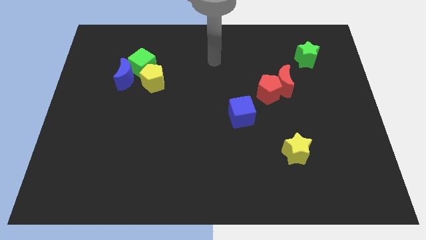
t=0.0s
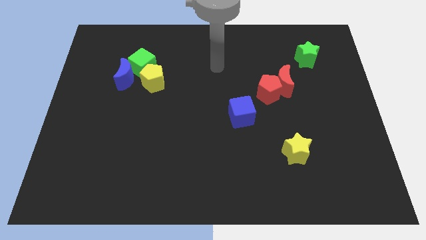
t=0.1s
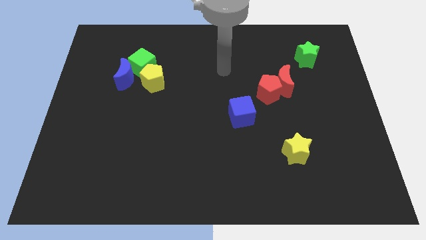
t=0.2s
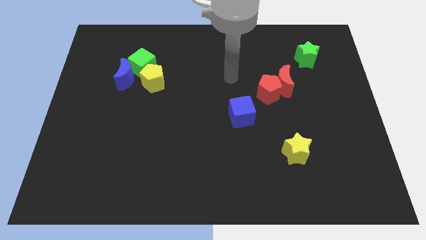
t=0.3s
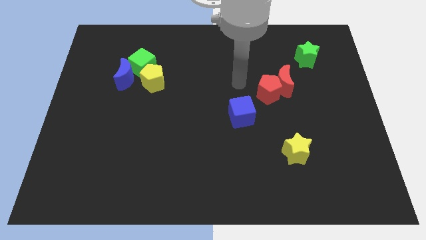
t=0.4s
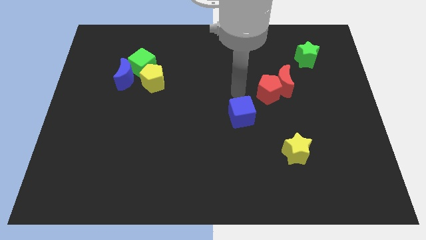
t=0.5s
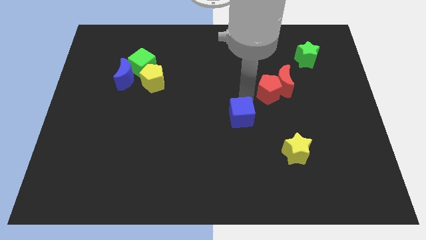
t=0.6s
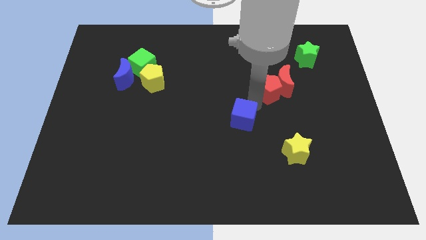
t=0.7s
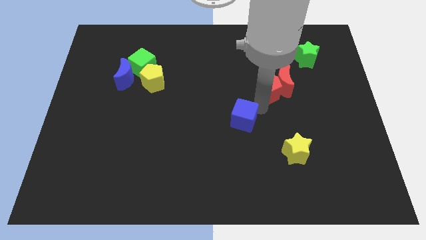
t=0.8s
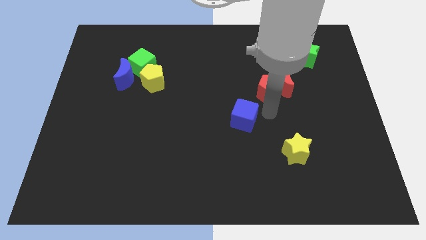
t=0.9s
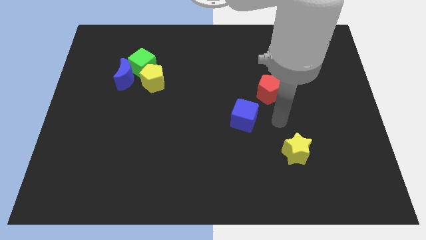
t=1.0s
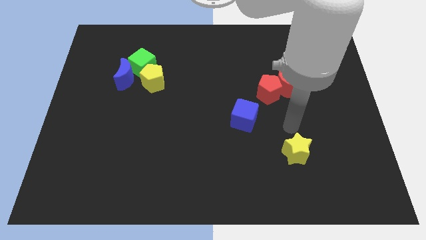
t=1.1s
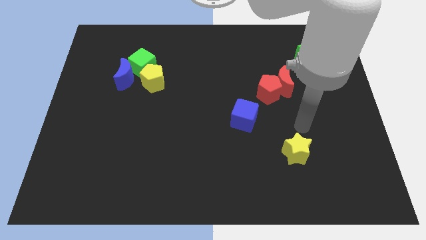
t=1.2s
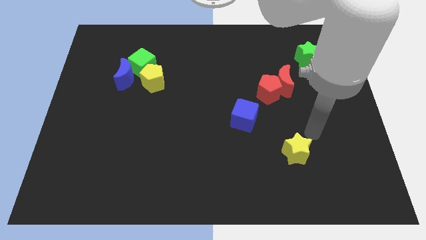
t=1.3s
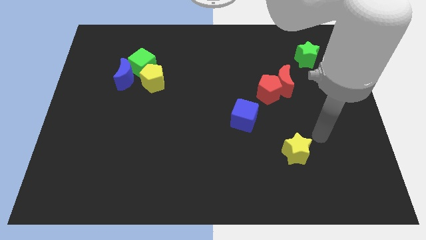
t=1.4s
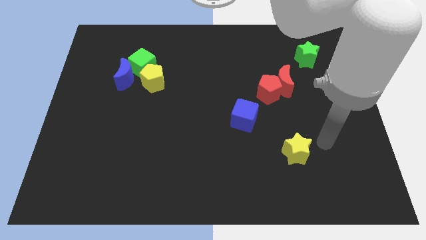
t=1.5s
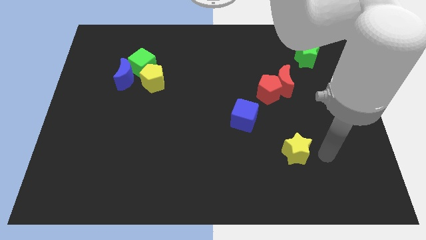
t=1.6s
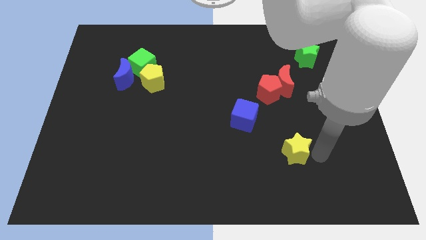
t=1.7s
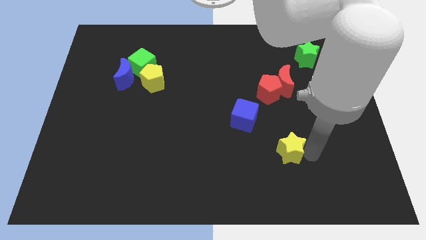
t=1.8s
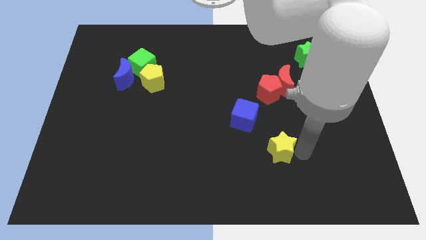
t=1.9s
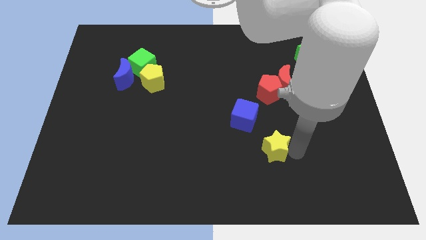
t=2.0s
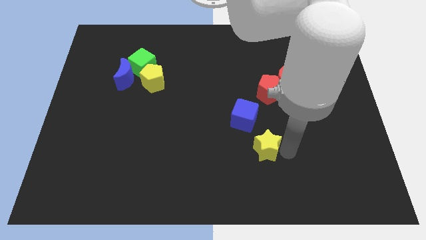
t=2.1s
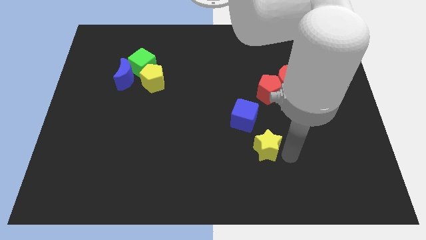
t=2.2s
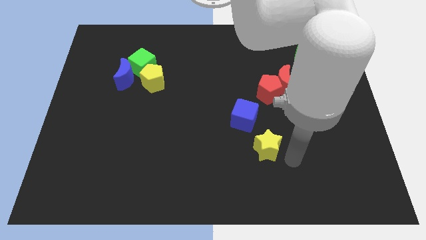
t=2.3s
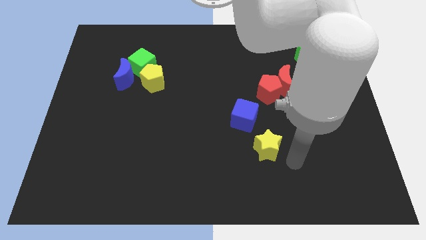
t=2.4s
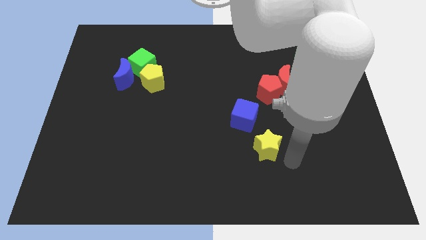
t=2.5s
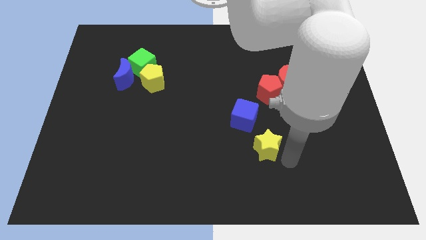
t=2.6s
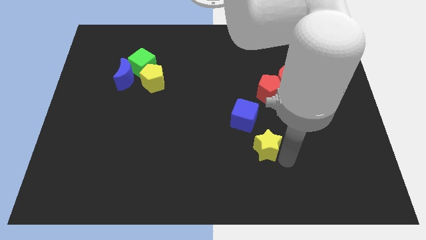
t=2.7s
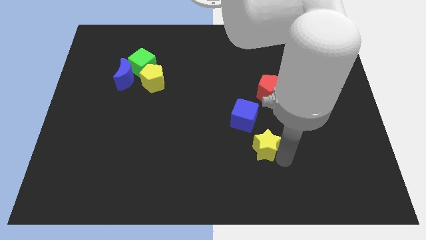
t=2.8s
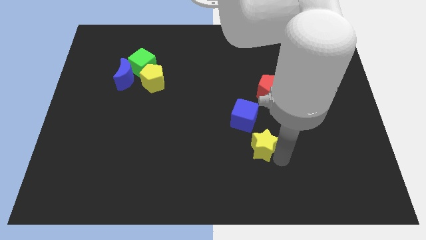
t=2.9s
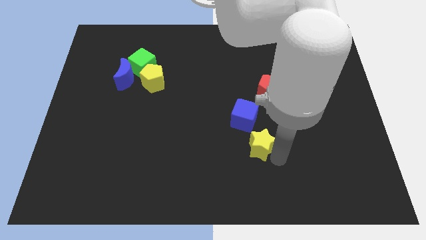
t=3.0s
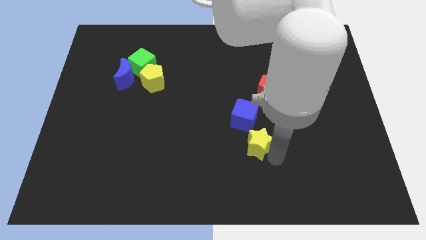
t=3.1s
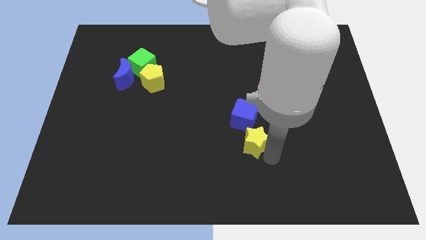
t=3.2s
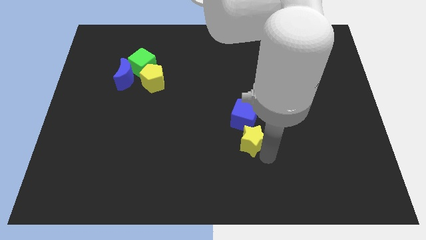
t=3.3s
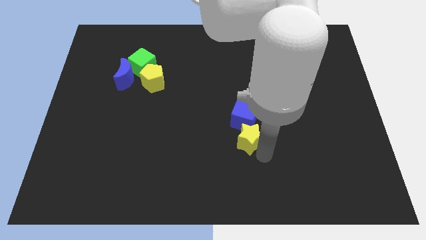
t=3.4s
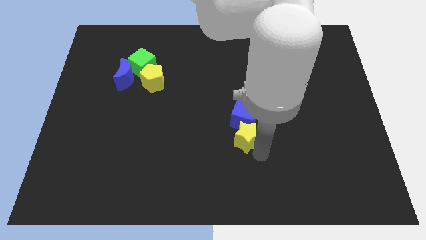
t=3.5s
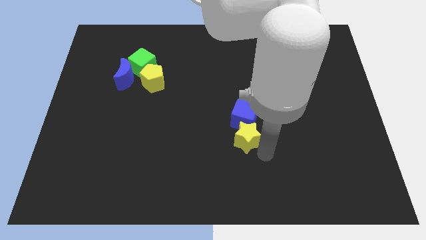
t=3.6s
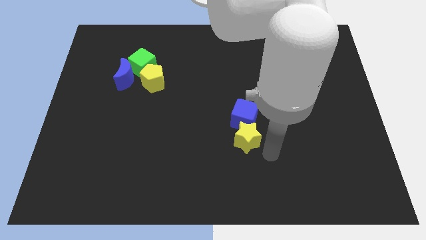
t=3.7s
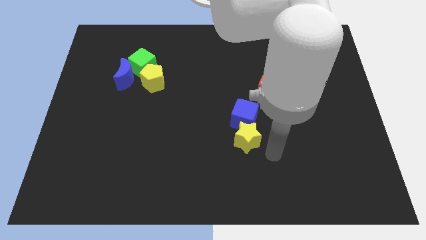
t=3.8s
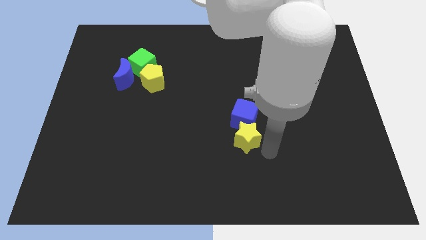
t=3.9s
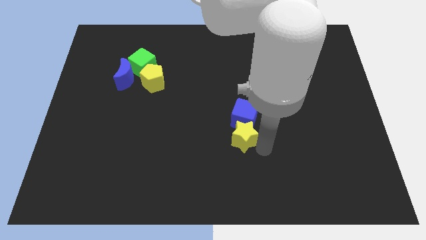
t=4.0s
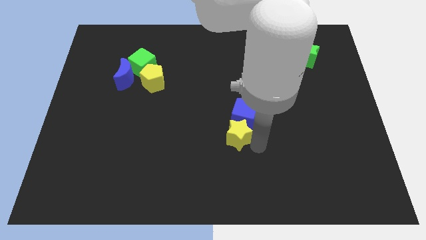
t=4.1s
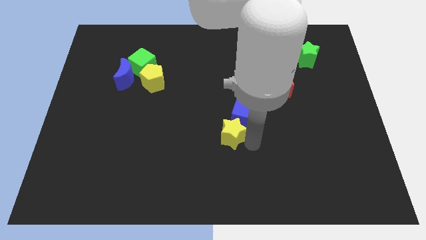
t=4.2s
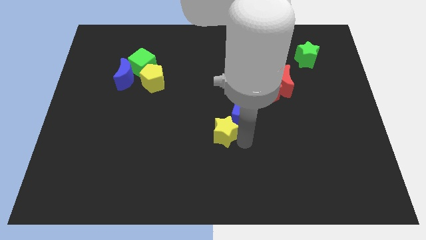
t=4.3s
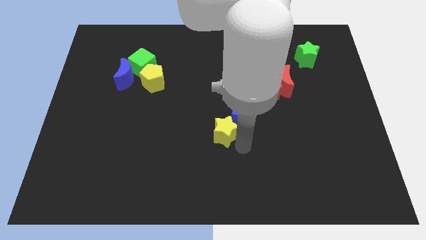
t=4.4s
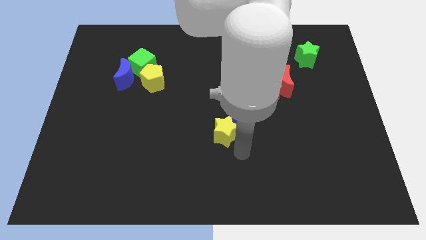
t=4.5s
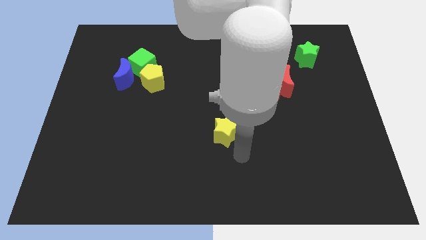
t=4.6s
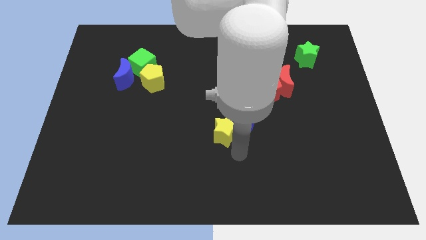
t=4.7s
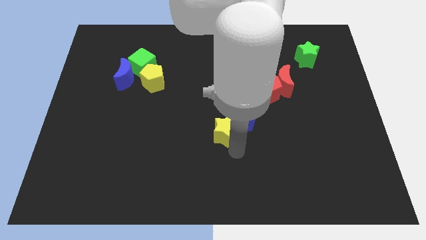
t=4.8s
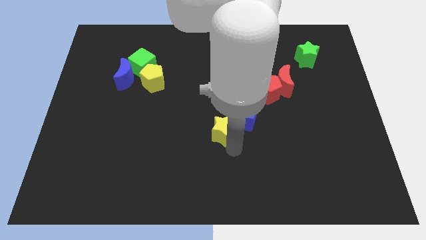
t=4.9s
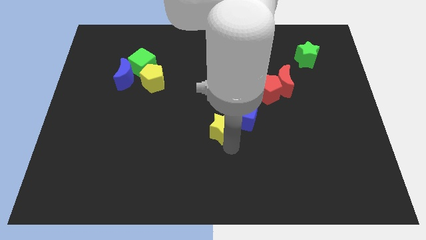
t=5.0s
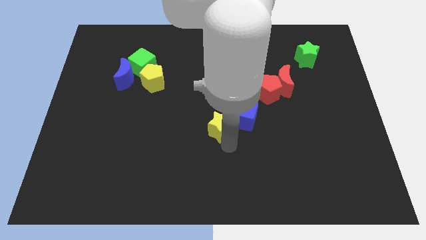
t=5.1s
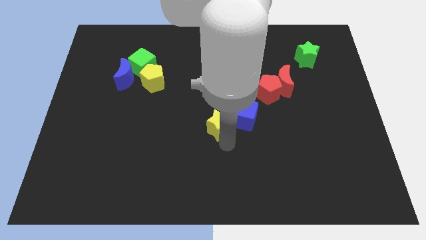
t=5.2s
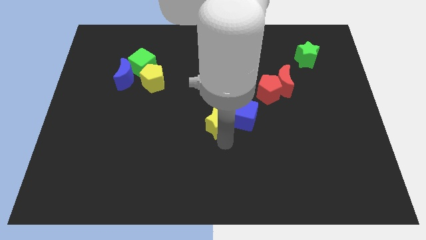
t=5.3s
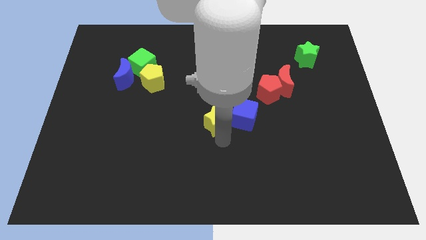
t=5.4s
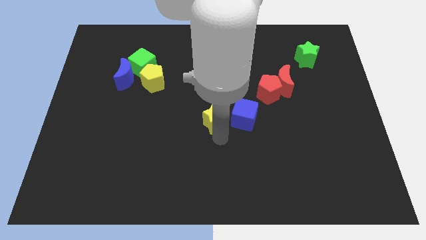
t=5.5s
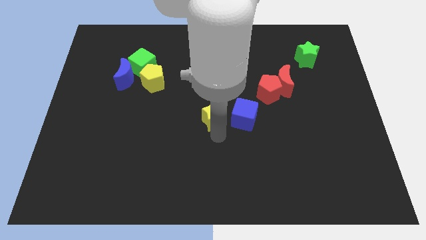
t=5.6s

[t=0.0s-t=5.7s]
slide the yellow star to the top left of the blue cube

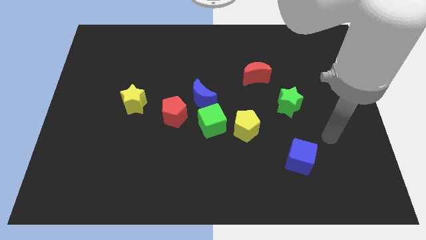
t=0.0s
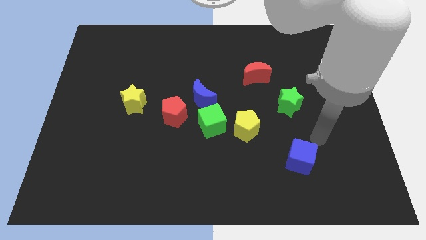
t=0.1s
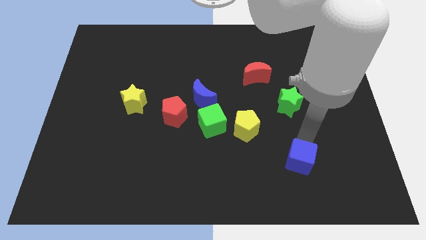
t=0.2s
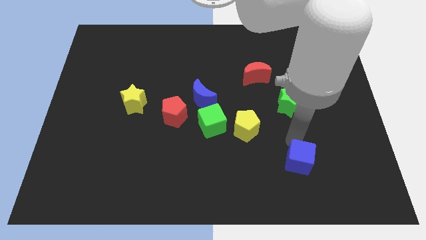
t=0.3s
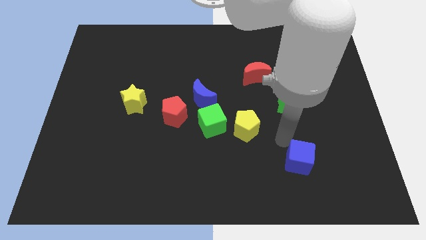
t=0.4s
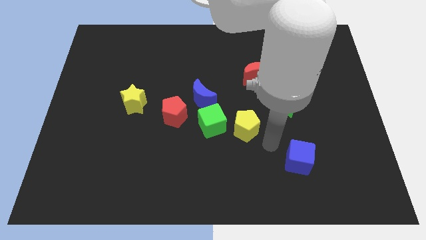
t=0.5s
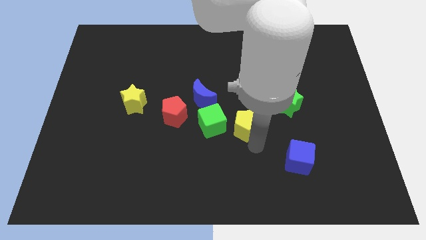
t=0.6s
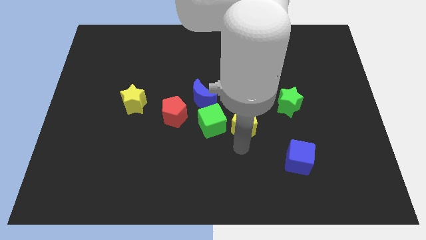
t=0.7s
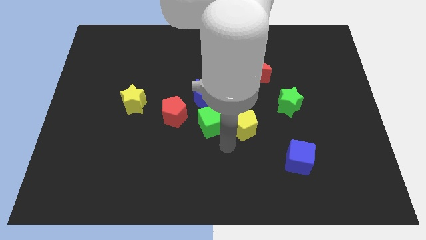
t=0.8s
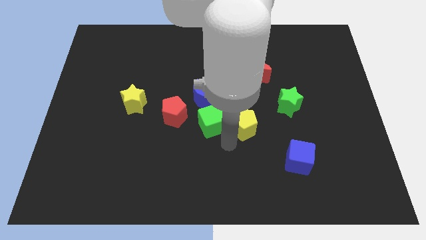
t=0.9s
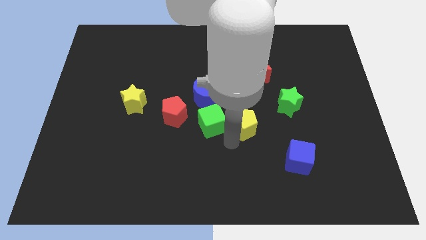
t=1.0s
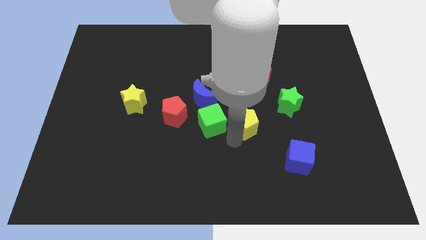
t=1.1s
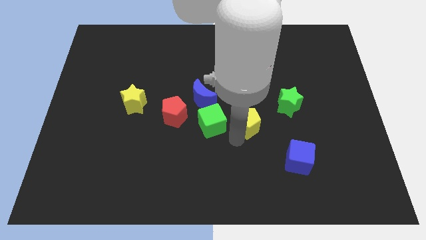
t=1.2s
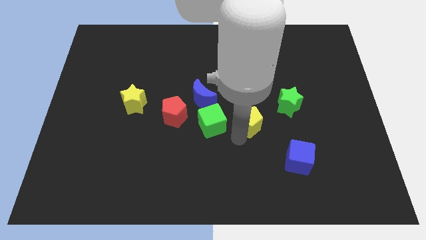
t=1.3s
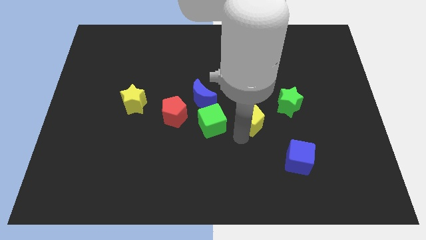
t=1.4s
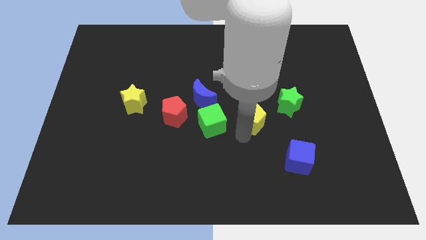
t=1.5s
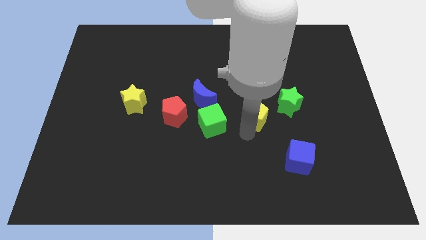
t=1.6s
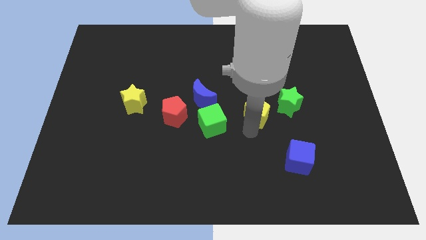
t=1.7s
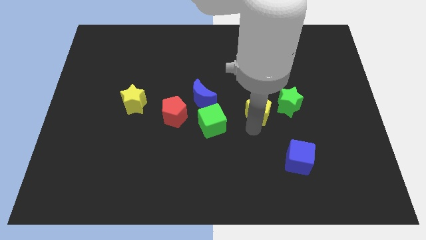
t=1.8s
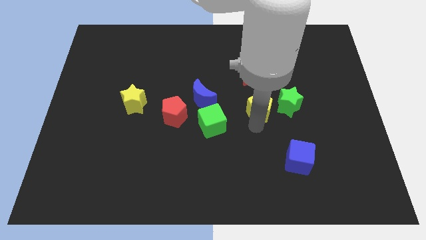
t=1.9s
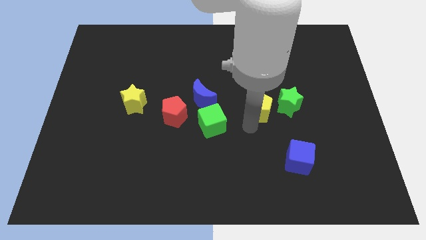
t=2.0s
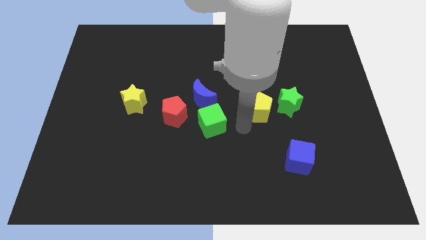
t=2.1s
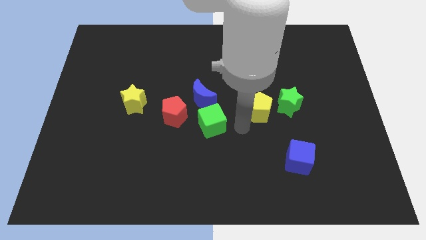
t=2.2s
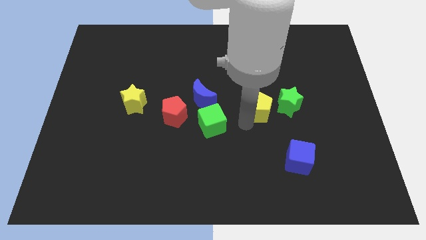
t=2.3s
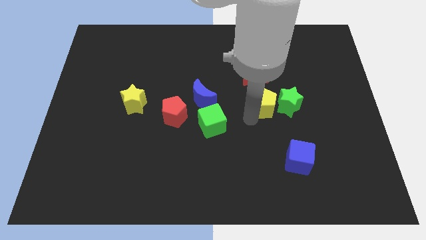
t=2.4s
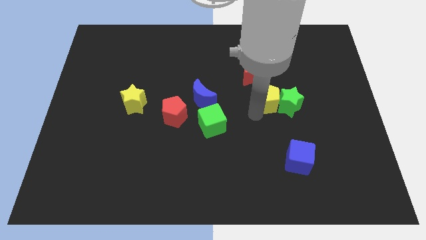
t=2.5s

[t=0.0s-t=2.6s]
push the yellow pentagon to the bottom right side of the red moon
